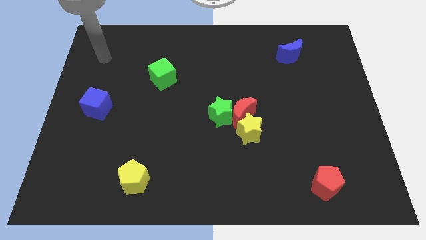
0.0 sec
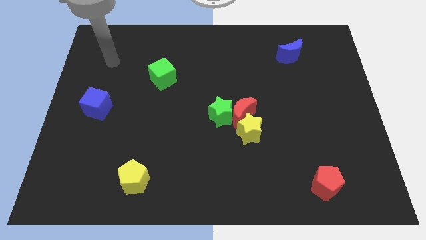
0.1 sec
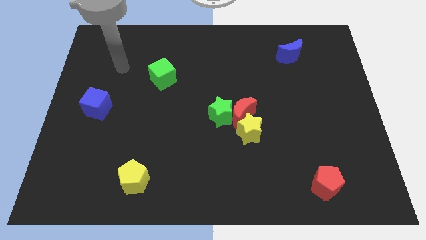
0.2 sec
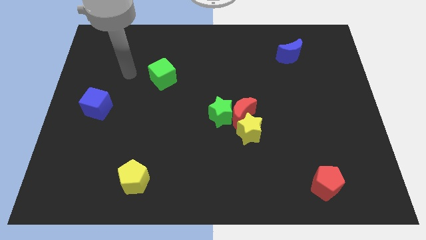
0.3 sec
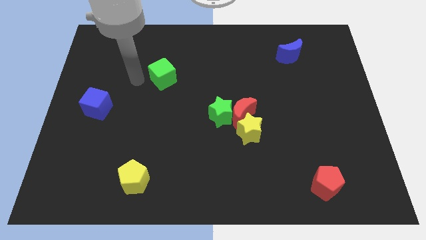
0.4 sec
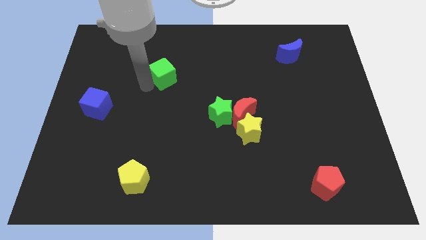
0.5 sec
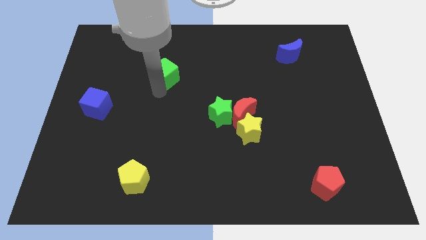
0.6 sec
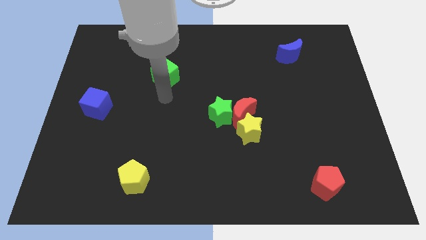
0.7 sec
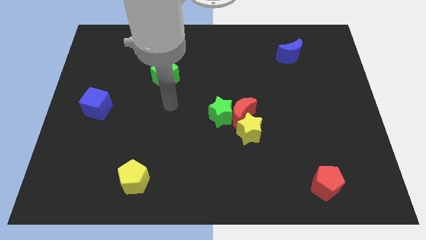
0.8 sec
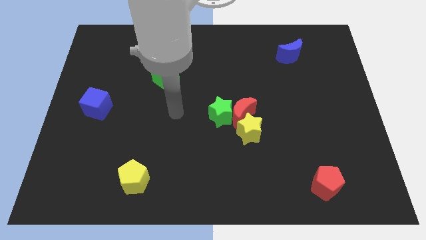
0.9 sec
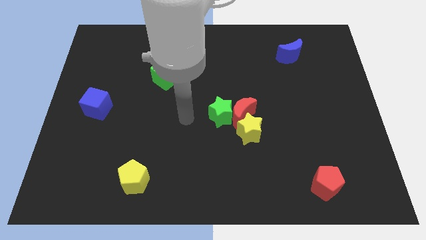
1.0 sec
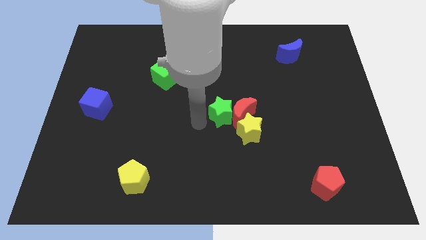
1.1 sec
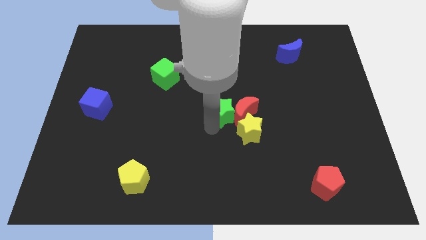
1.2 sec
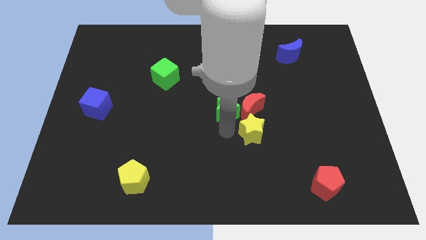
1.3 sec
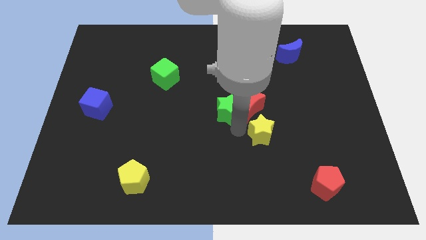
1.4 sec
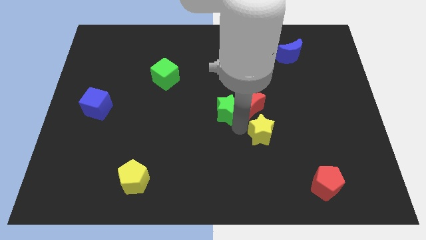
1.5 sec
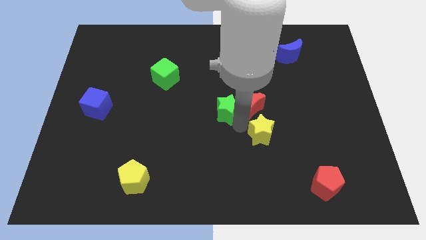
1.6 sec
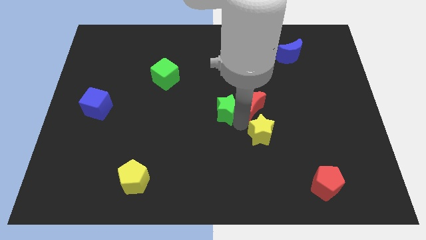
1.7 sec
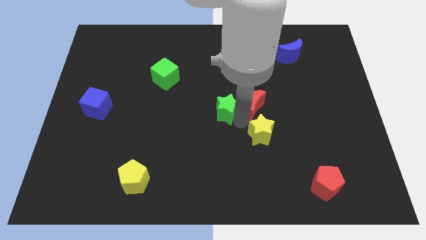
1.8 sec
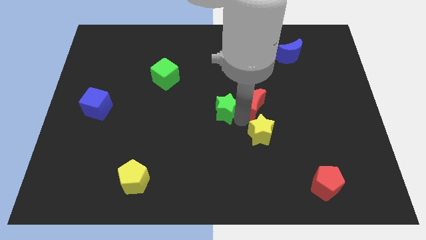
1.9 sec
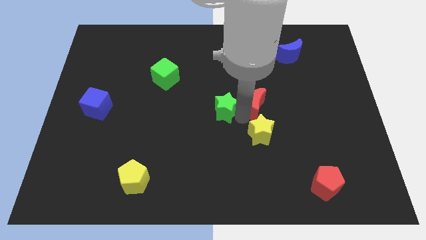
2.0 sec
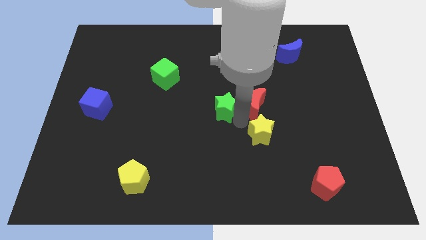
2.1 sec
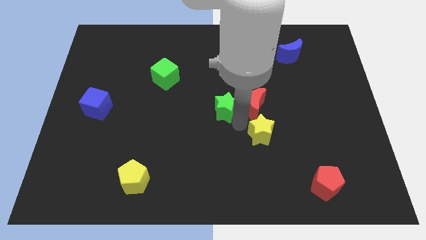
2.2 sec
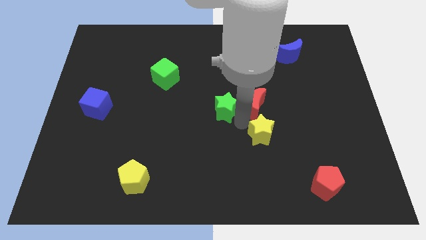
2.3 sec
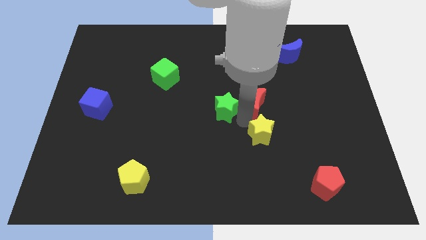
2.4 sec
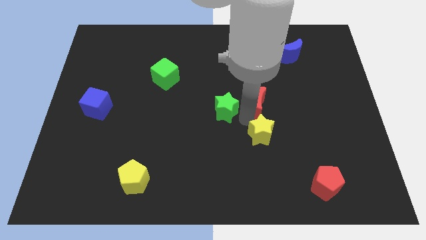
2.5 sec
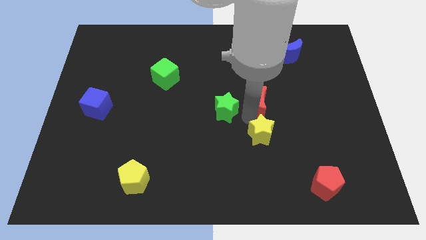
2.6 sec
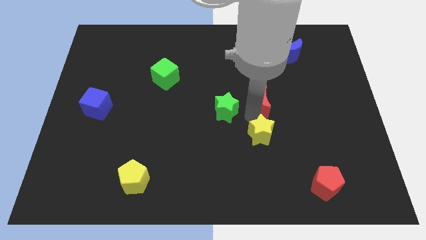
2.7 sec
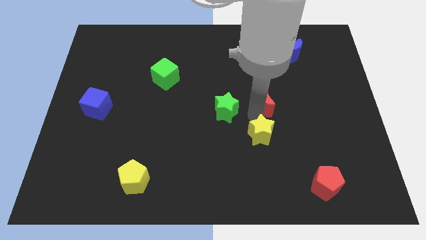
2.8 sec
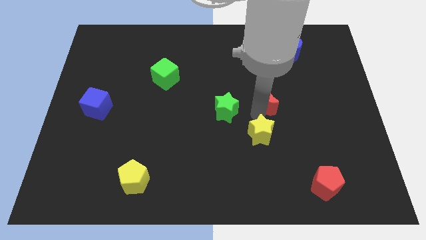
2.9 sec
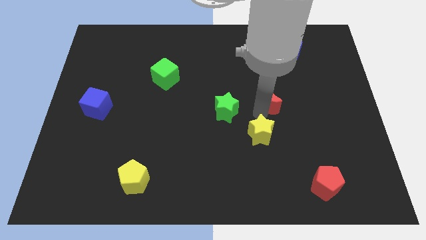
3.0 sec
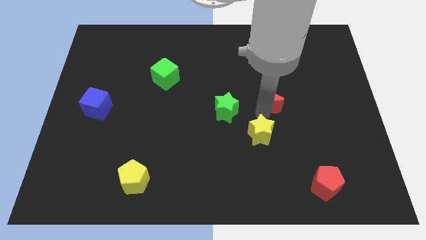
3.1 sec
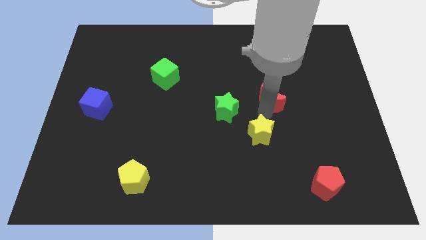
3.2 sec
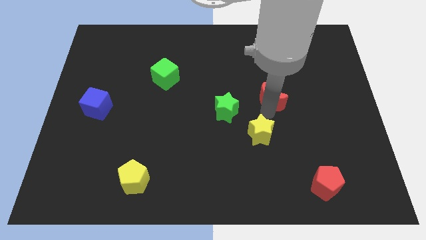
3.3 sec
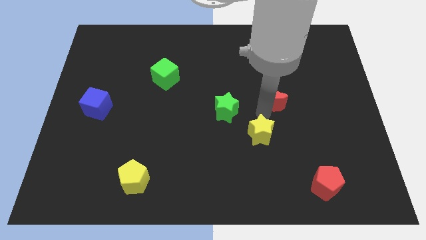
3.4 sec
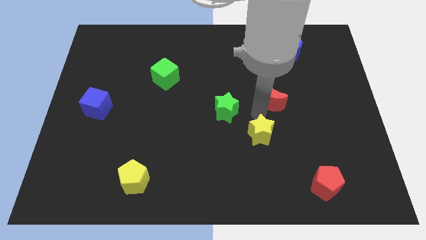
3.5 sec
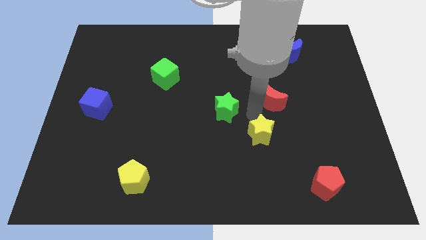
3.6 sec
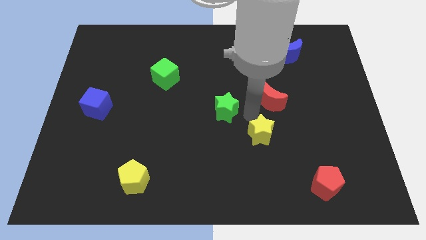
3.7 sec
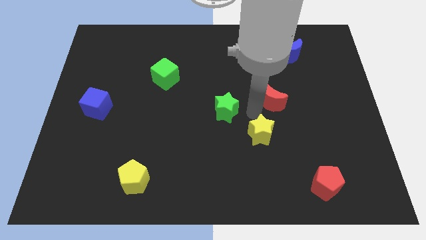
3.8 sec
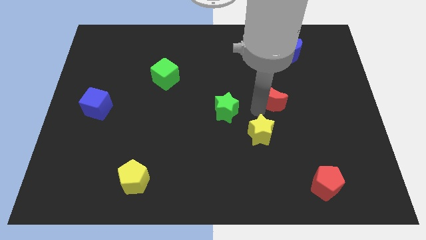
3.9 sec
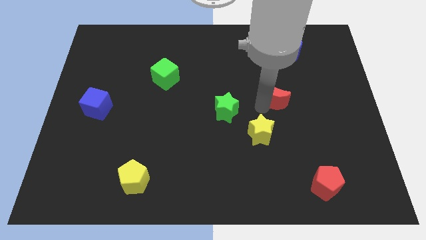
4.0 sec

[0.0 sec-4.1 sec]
pull the red moon apart from the green star and yellow star

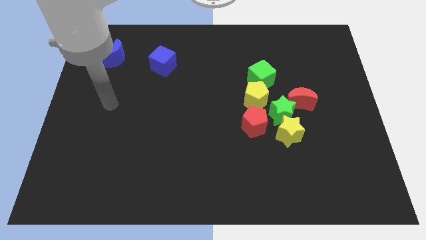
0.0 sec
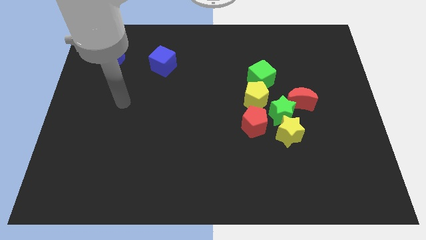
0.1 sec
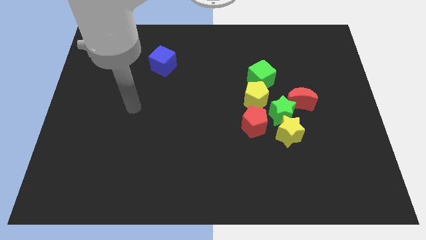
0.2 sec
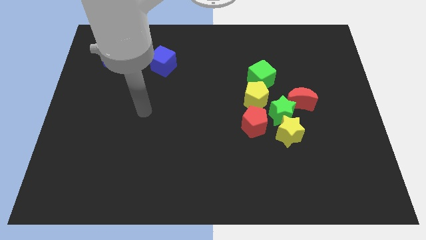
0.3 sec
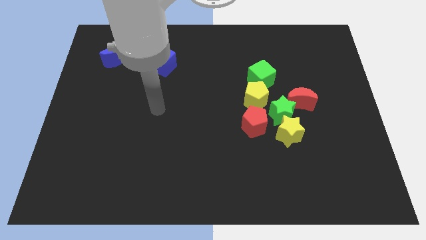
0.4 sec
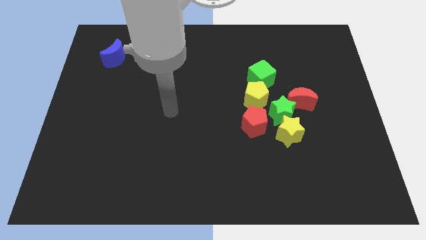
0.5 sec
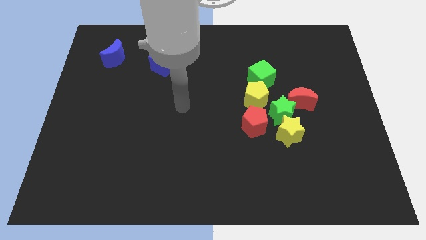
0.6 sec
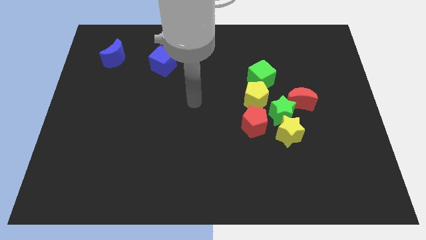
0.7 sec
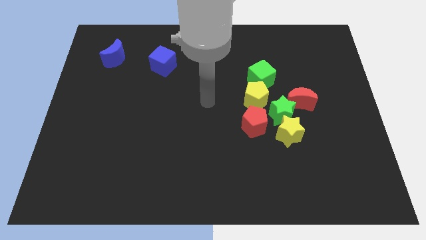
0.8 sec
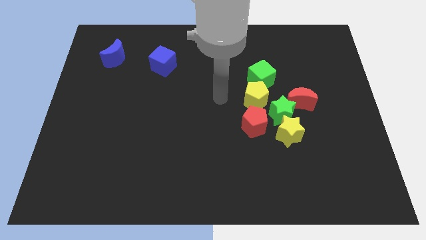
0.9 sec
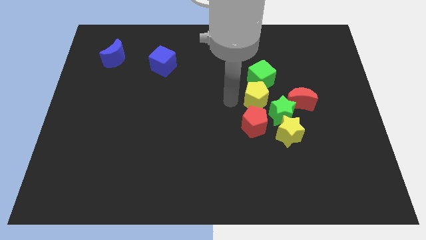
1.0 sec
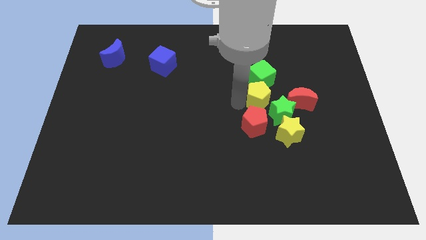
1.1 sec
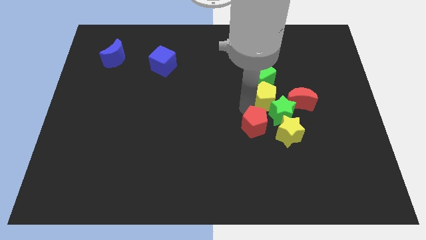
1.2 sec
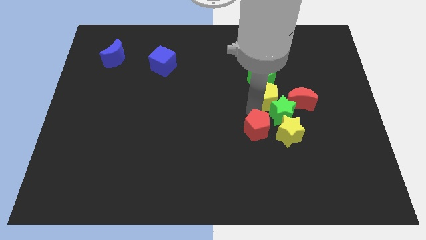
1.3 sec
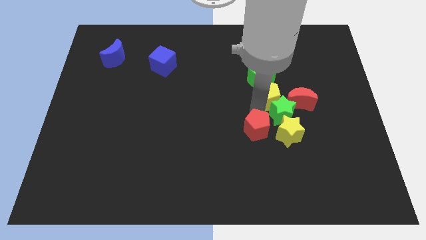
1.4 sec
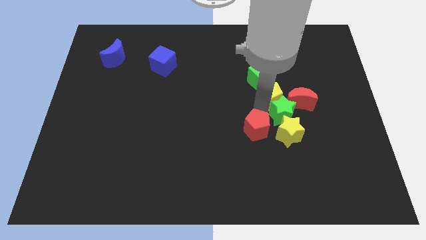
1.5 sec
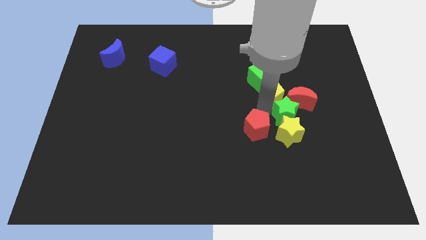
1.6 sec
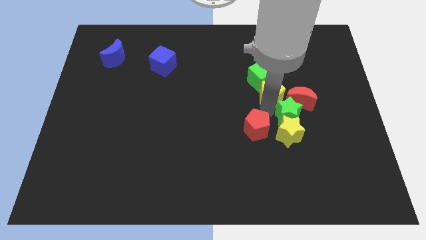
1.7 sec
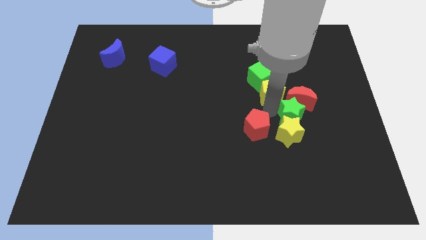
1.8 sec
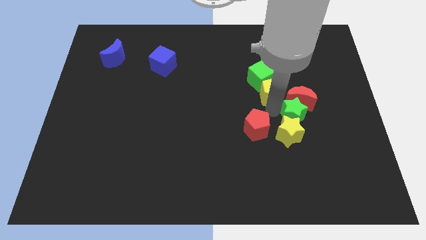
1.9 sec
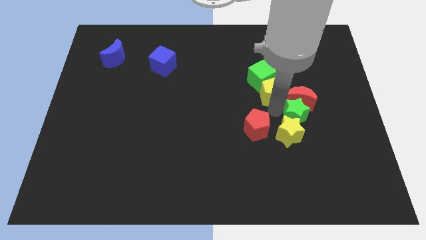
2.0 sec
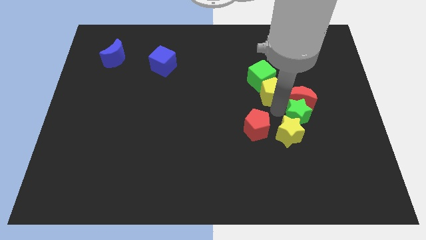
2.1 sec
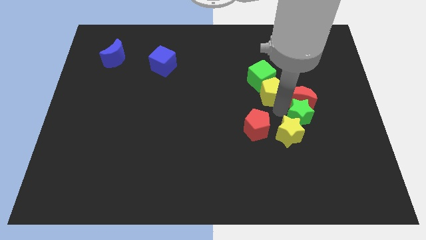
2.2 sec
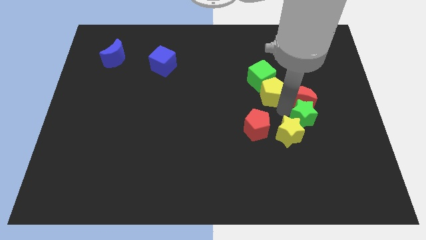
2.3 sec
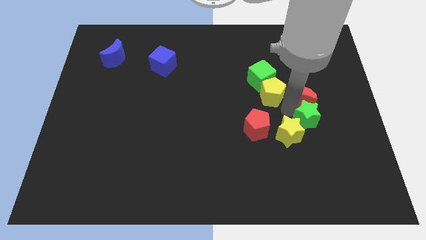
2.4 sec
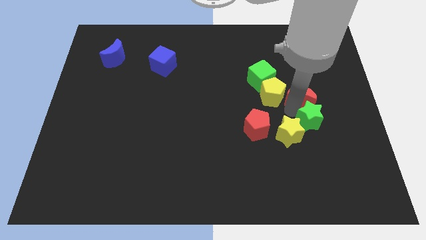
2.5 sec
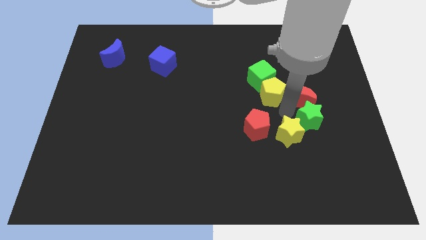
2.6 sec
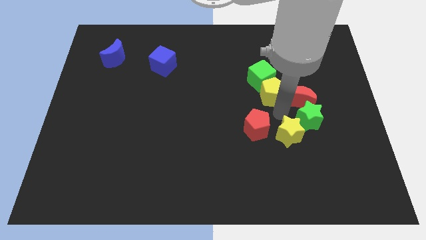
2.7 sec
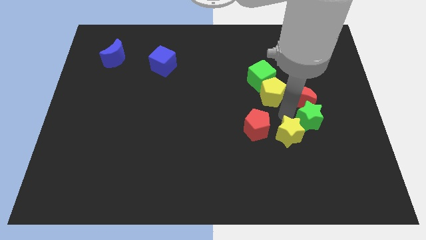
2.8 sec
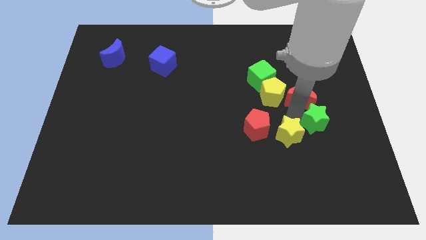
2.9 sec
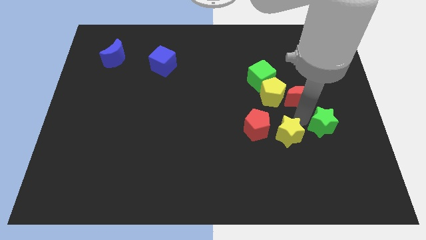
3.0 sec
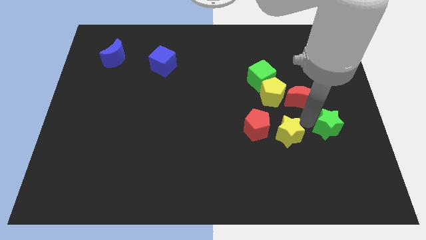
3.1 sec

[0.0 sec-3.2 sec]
move the green star away from the group

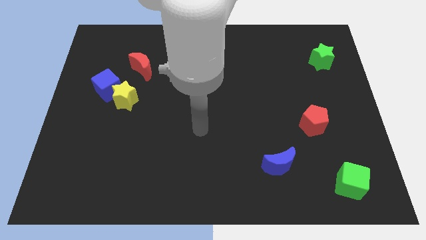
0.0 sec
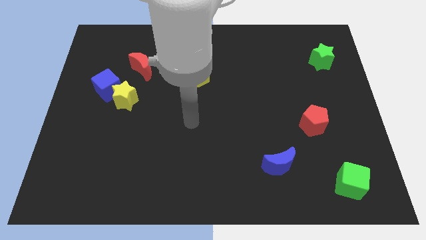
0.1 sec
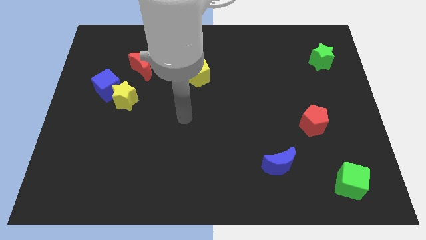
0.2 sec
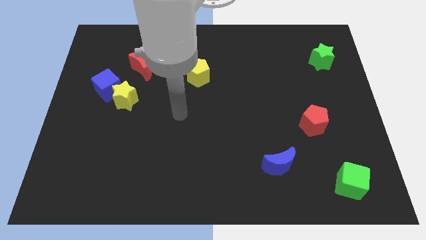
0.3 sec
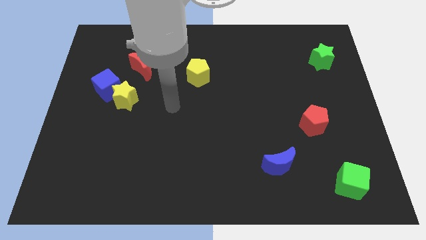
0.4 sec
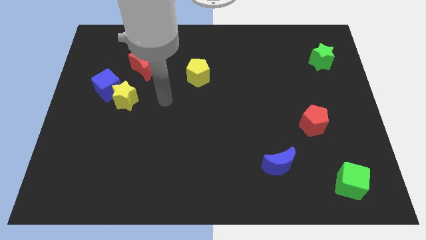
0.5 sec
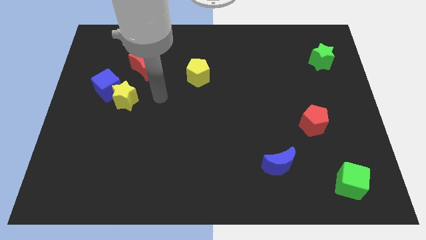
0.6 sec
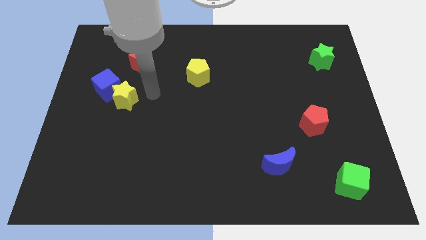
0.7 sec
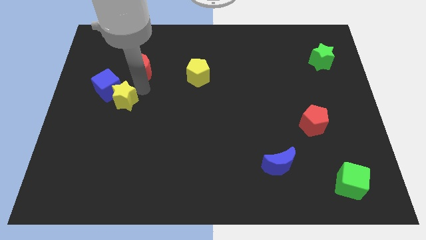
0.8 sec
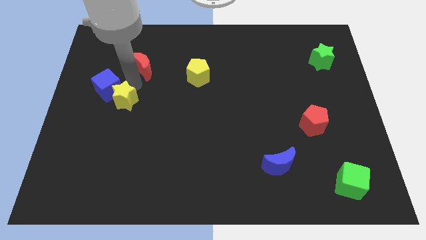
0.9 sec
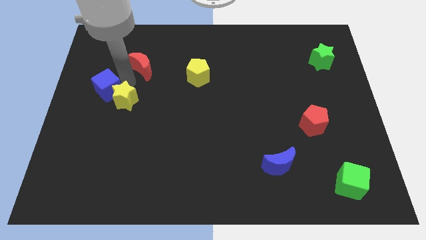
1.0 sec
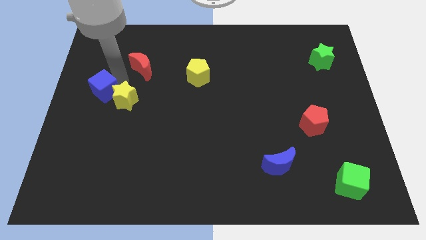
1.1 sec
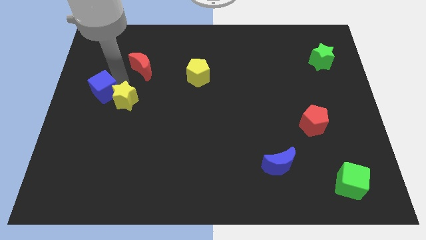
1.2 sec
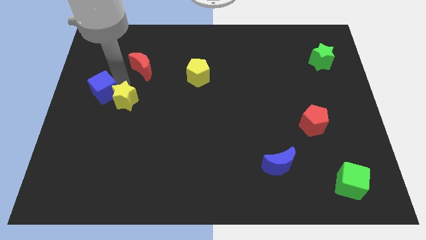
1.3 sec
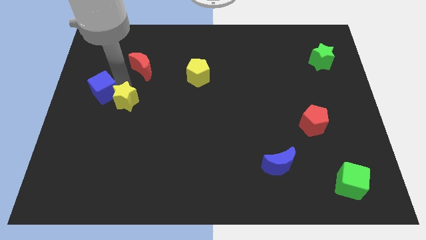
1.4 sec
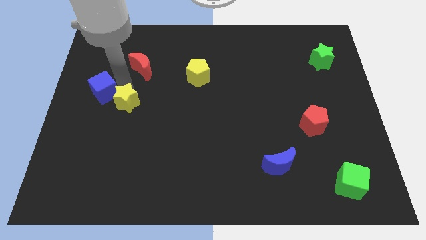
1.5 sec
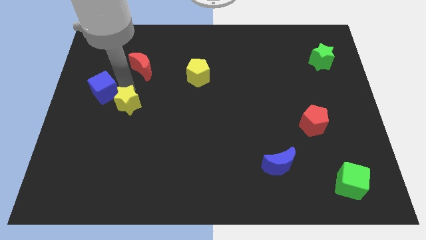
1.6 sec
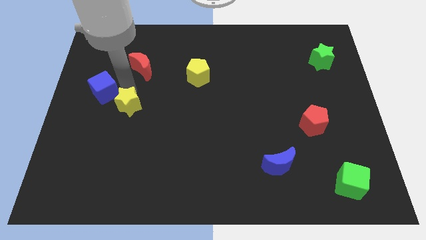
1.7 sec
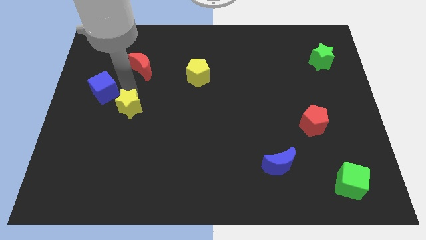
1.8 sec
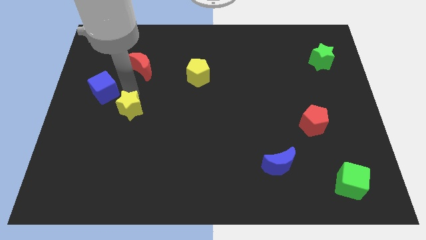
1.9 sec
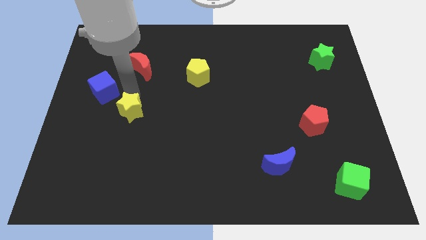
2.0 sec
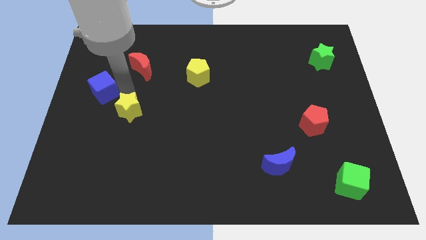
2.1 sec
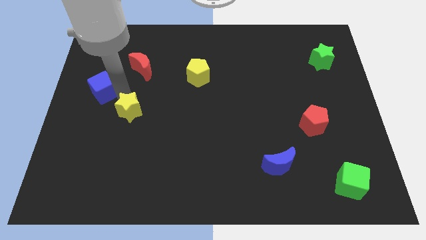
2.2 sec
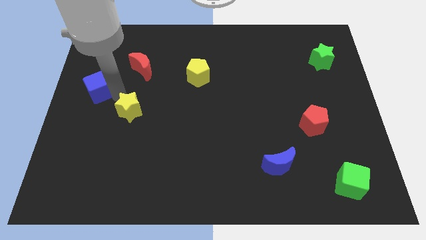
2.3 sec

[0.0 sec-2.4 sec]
pull the yellow star apart from the blue cube
